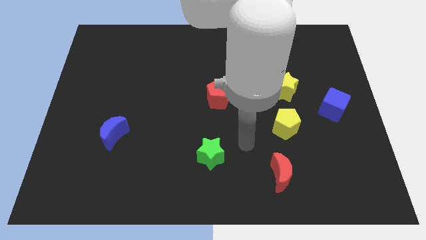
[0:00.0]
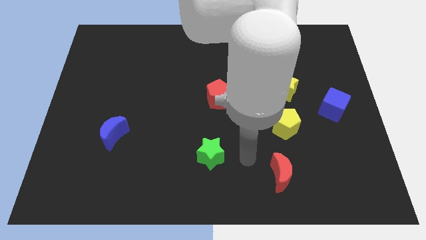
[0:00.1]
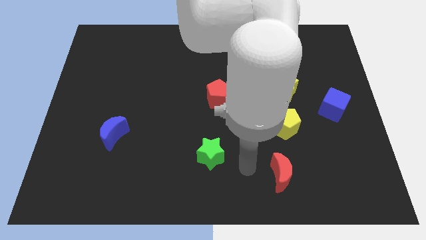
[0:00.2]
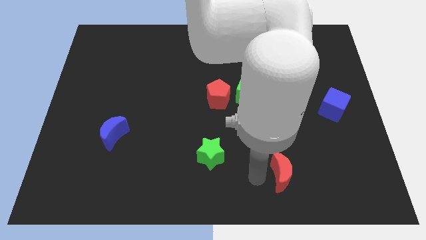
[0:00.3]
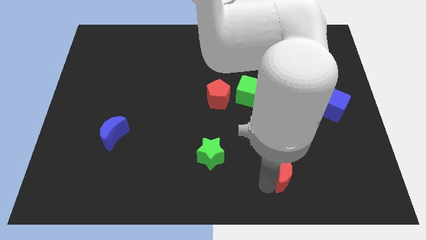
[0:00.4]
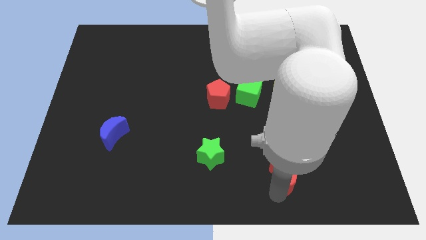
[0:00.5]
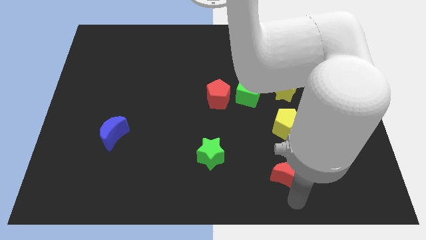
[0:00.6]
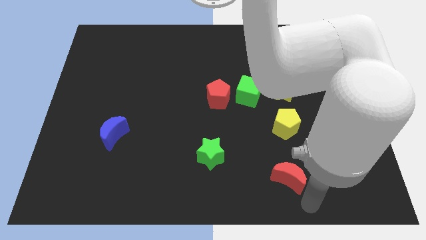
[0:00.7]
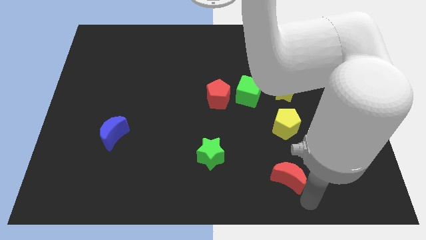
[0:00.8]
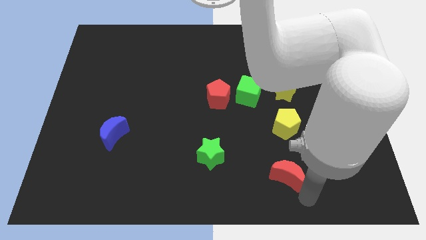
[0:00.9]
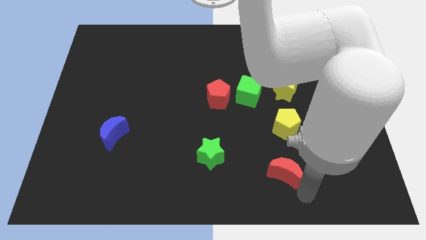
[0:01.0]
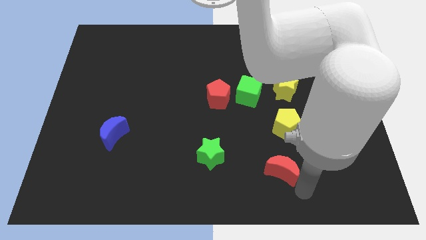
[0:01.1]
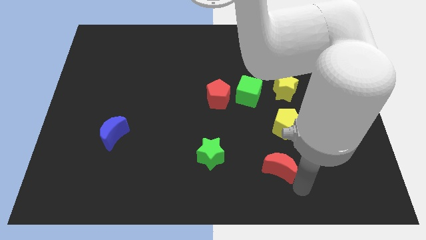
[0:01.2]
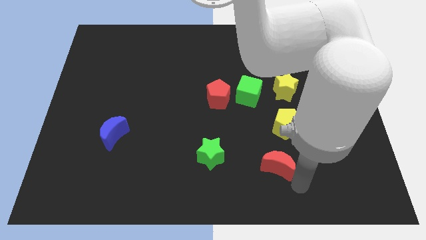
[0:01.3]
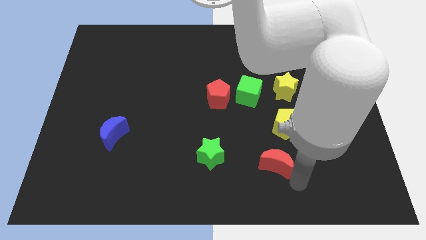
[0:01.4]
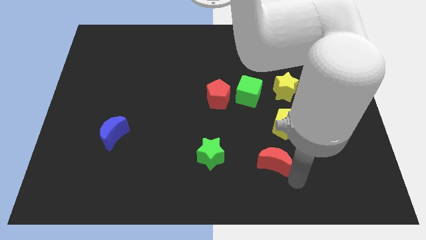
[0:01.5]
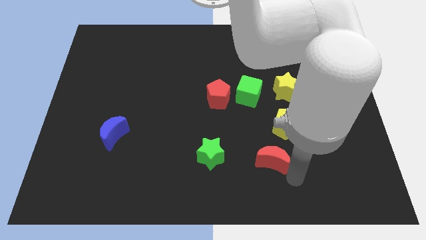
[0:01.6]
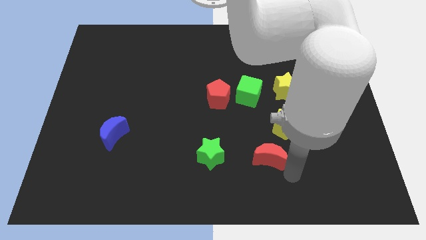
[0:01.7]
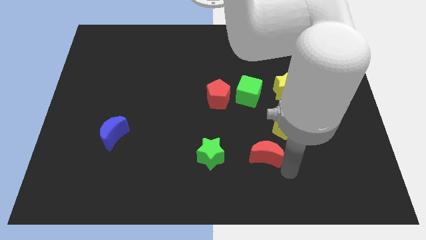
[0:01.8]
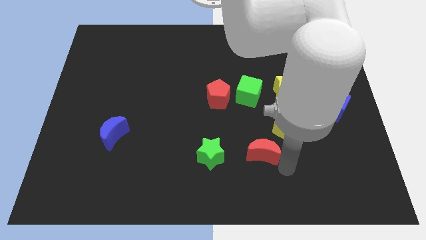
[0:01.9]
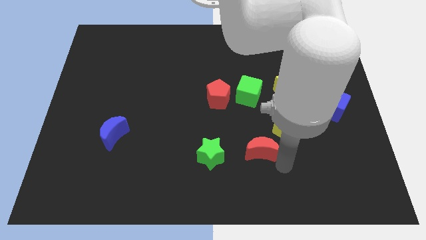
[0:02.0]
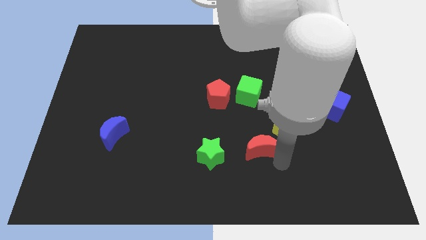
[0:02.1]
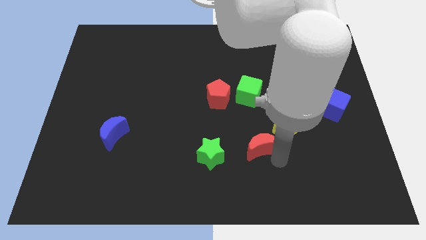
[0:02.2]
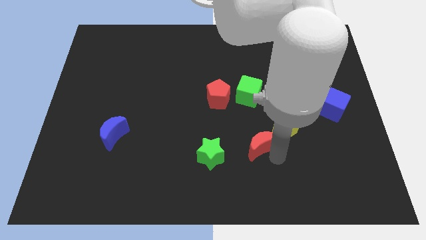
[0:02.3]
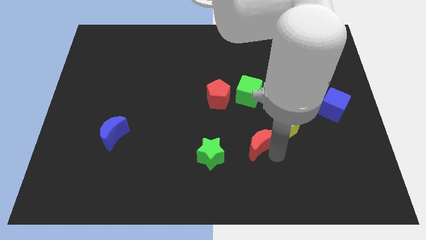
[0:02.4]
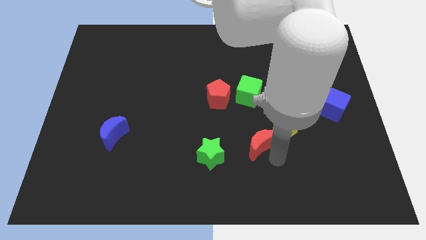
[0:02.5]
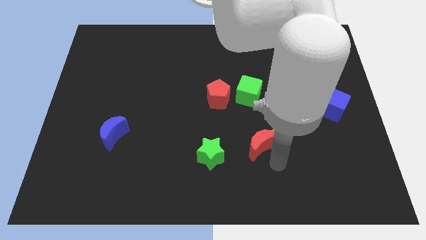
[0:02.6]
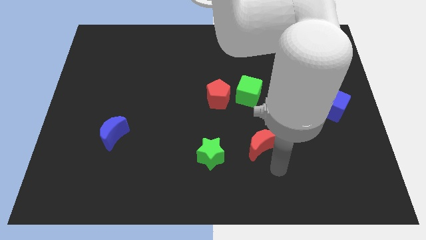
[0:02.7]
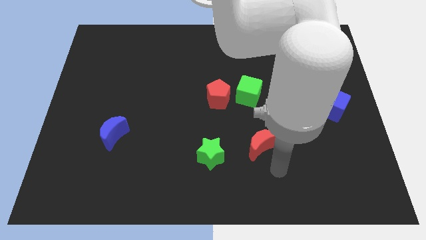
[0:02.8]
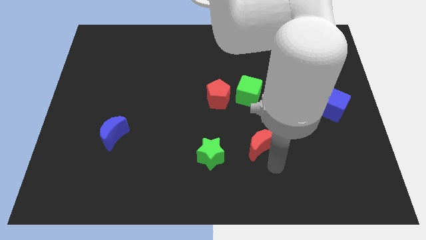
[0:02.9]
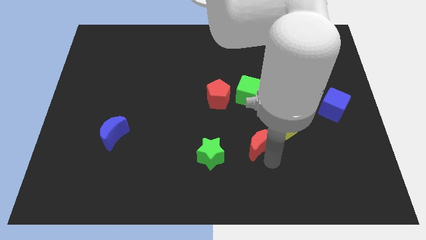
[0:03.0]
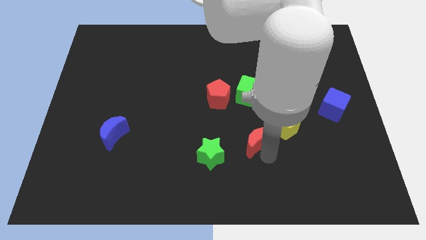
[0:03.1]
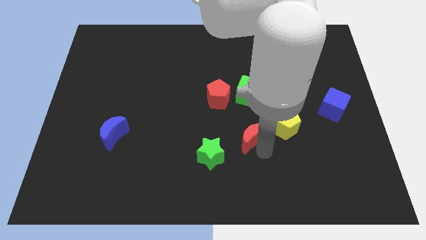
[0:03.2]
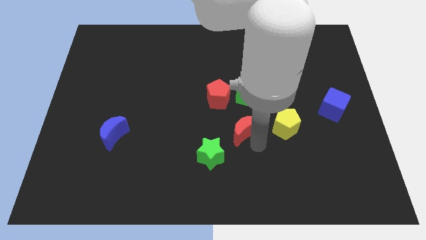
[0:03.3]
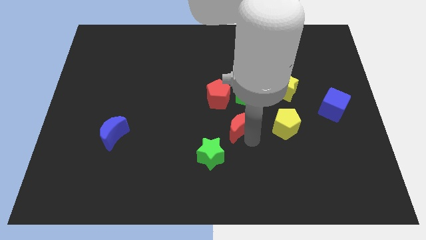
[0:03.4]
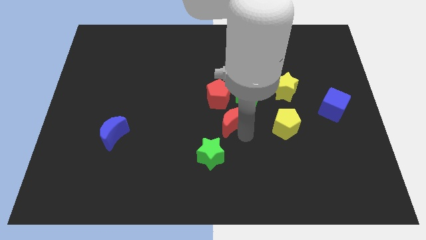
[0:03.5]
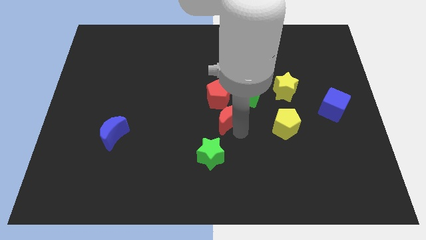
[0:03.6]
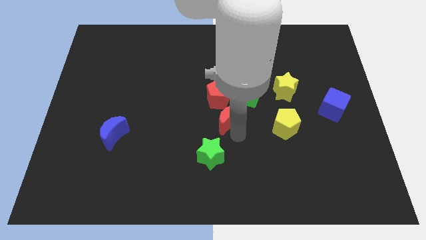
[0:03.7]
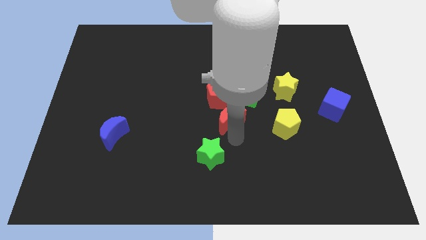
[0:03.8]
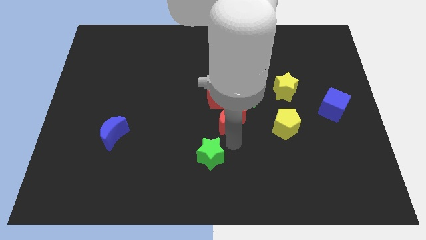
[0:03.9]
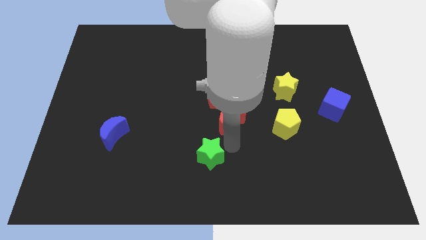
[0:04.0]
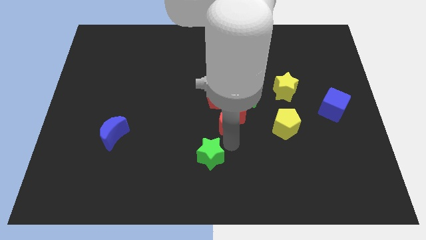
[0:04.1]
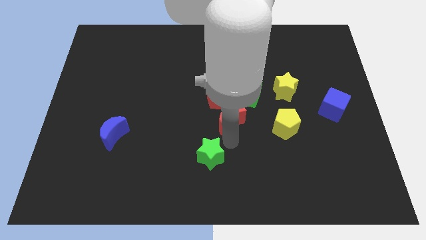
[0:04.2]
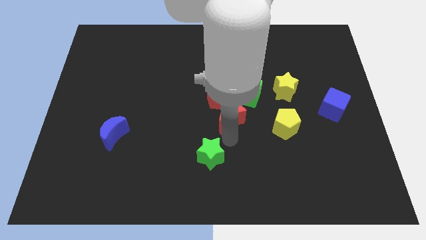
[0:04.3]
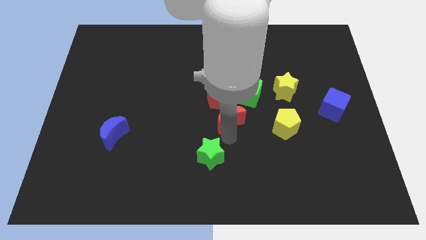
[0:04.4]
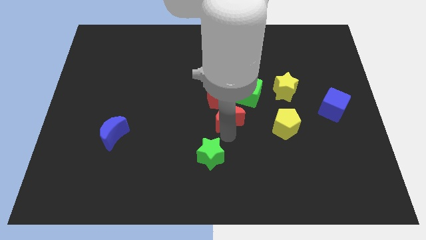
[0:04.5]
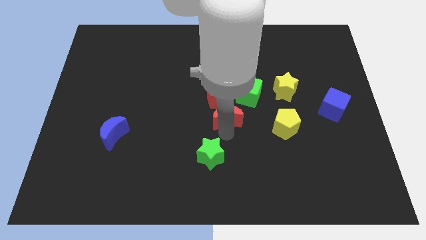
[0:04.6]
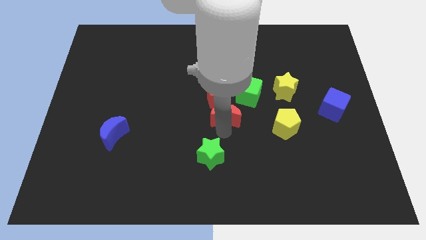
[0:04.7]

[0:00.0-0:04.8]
move the red moon to the red pentagon

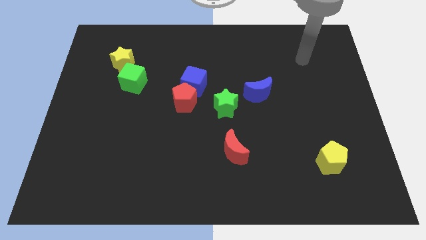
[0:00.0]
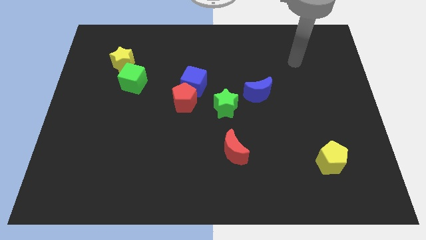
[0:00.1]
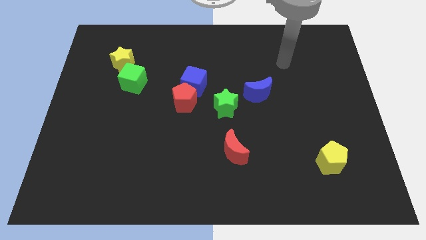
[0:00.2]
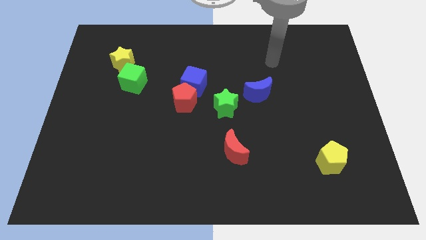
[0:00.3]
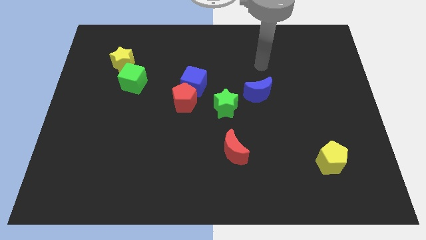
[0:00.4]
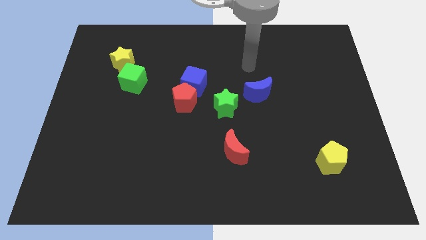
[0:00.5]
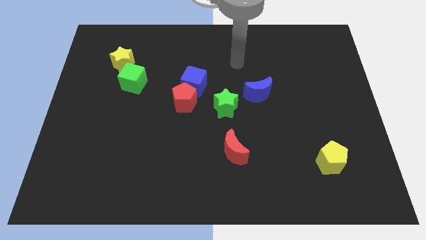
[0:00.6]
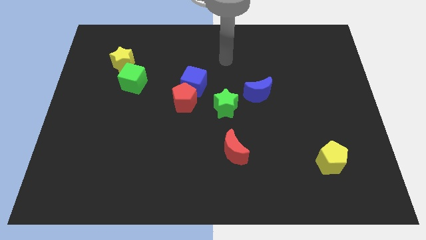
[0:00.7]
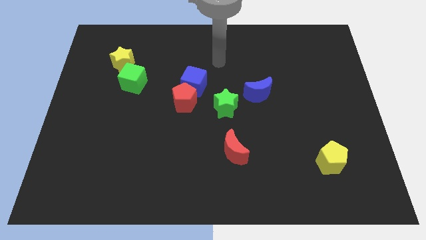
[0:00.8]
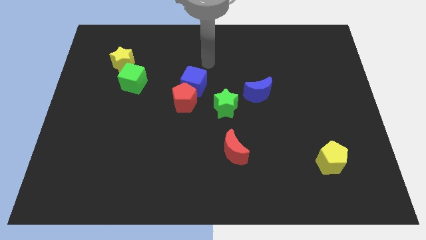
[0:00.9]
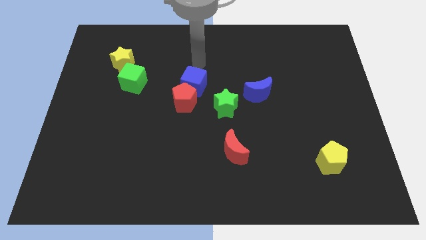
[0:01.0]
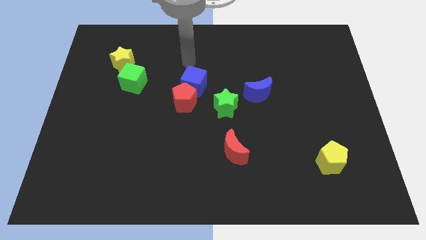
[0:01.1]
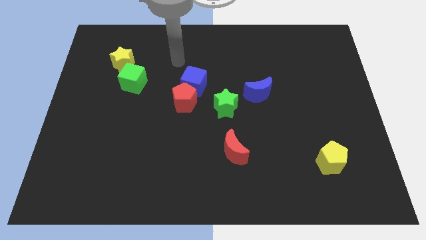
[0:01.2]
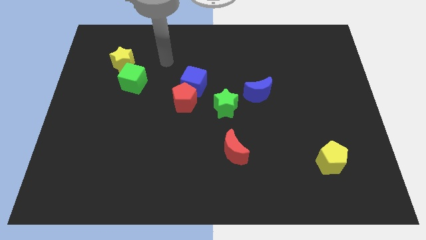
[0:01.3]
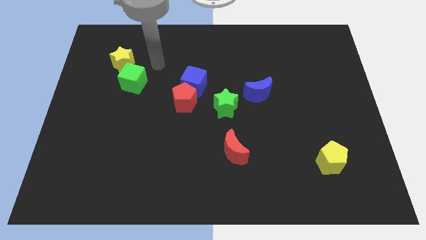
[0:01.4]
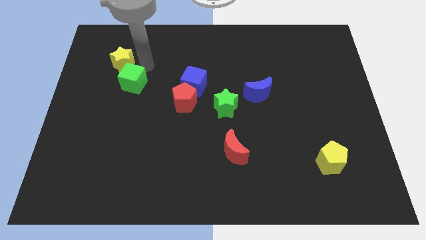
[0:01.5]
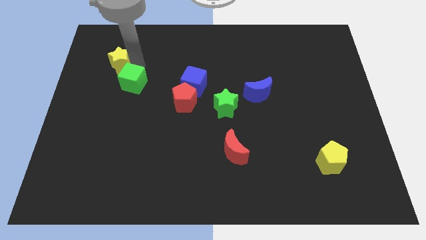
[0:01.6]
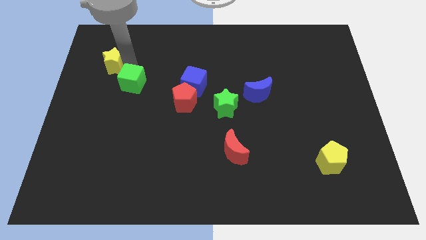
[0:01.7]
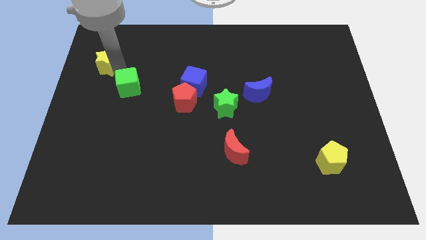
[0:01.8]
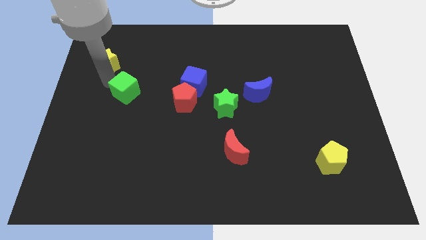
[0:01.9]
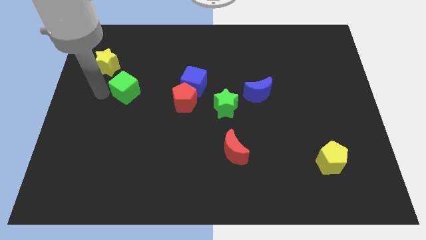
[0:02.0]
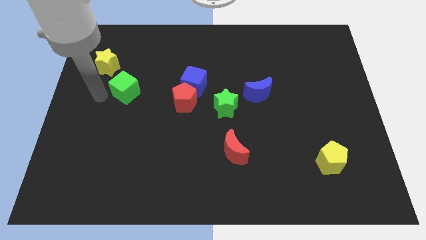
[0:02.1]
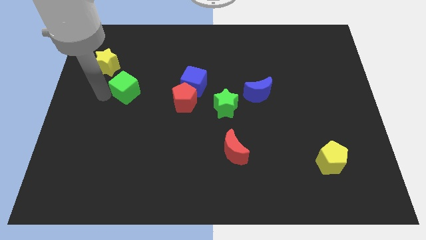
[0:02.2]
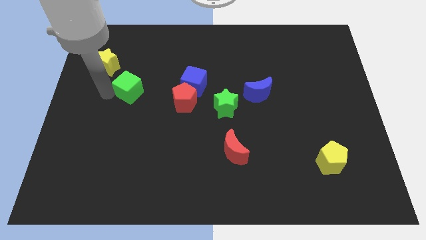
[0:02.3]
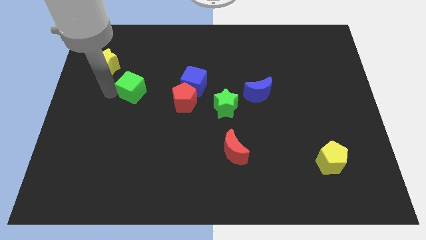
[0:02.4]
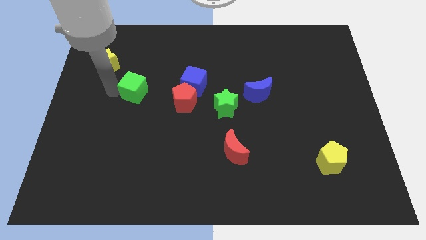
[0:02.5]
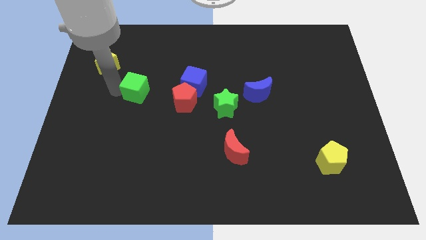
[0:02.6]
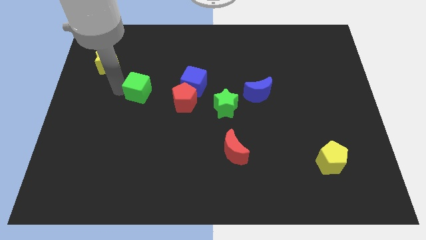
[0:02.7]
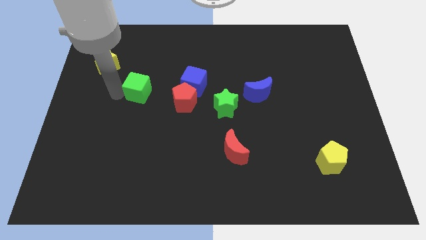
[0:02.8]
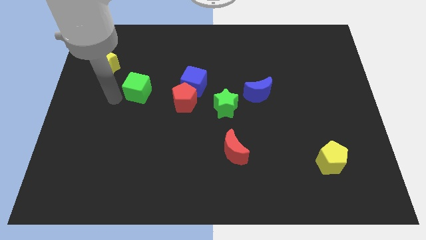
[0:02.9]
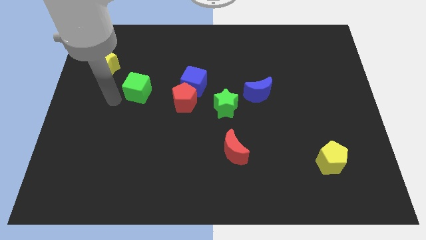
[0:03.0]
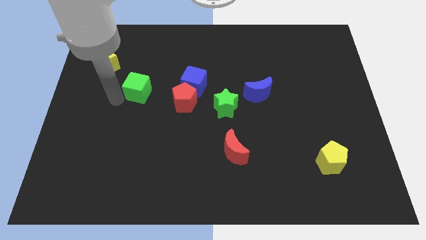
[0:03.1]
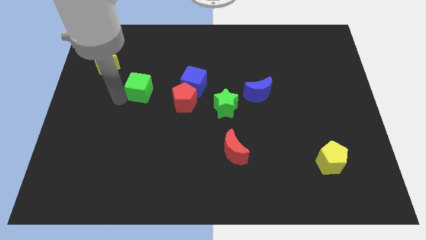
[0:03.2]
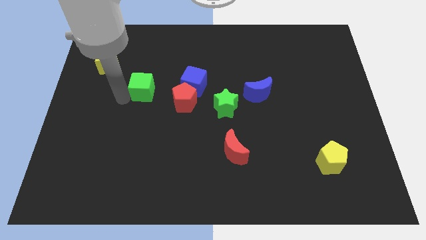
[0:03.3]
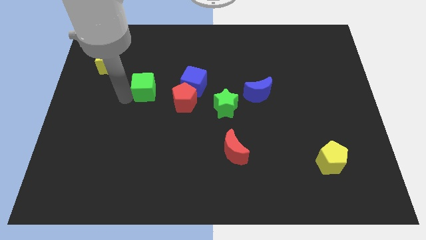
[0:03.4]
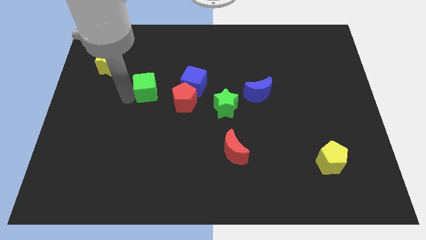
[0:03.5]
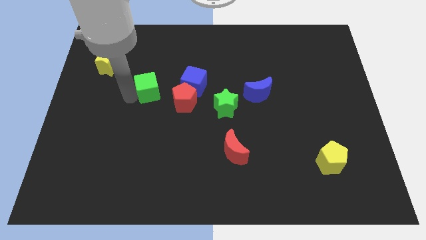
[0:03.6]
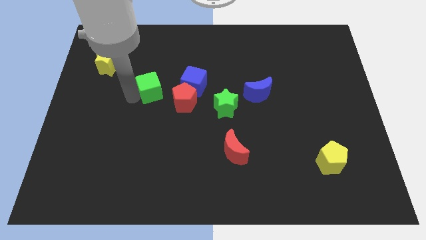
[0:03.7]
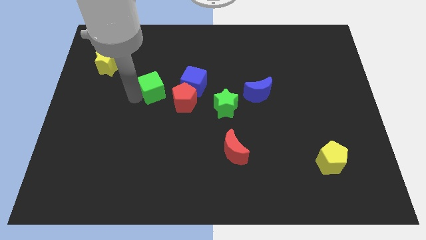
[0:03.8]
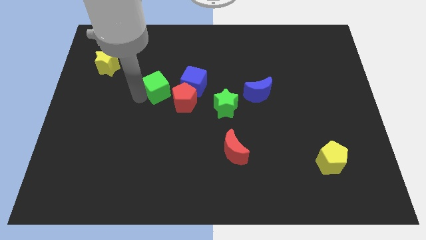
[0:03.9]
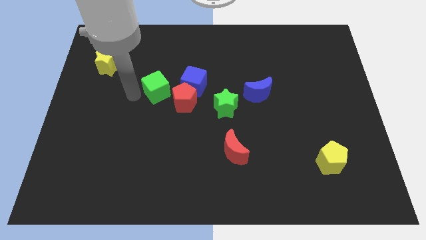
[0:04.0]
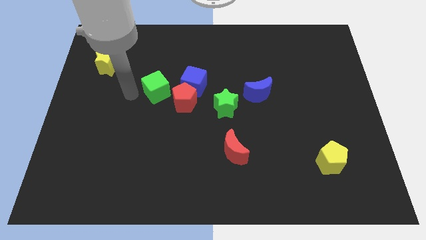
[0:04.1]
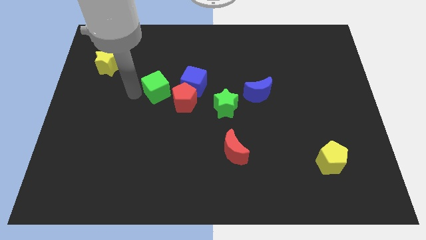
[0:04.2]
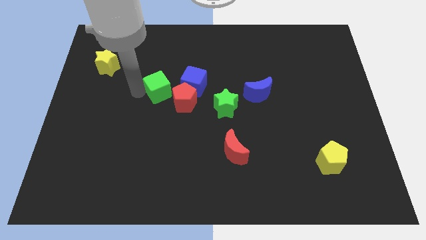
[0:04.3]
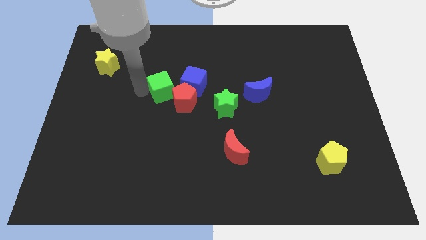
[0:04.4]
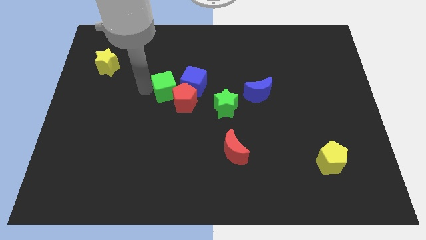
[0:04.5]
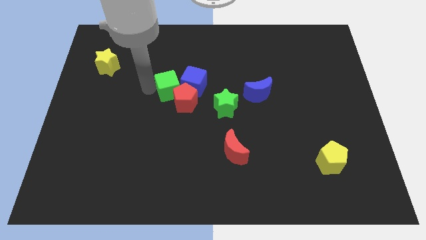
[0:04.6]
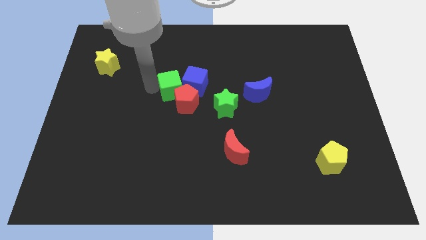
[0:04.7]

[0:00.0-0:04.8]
push the green cube close to the blue cube
